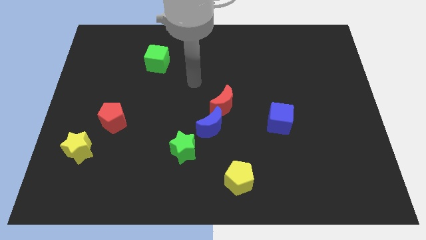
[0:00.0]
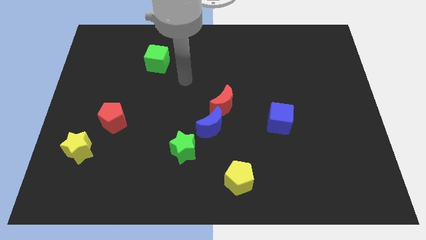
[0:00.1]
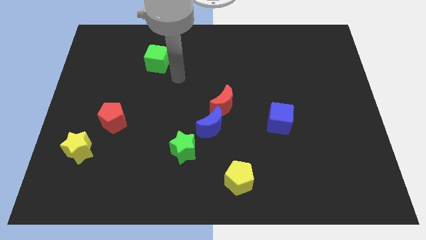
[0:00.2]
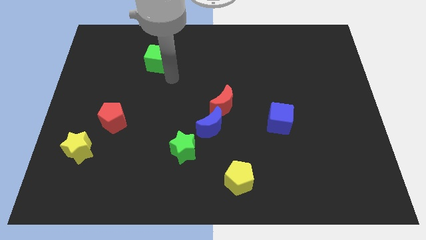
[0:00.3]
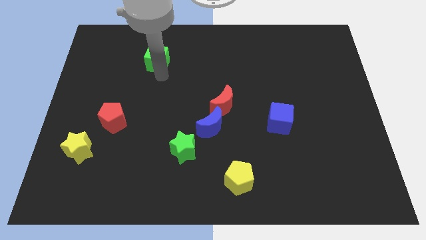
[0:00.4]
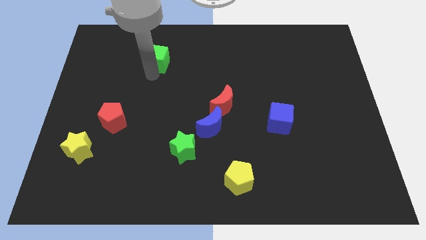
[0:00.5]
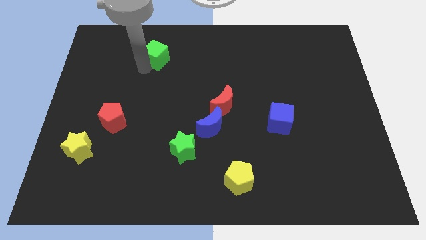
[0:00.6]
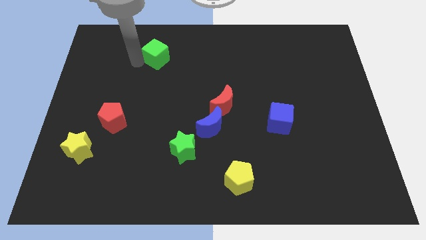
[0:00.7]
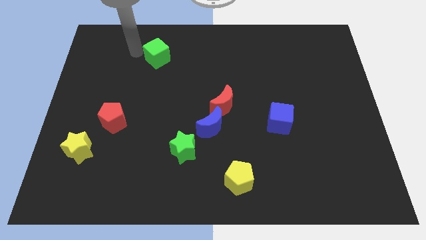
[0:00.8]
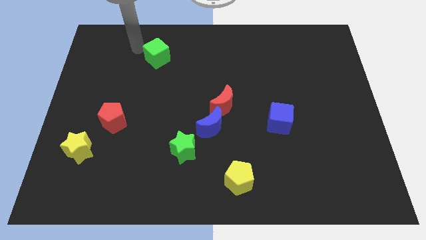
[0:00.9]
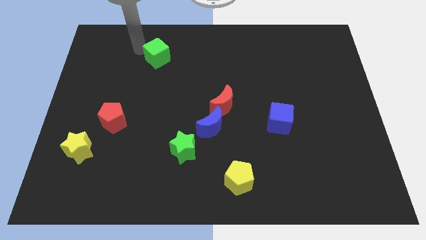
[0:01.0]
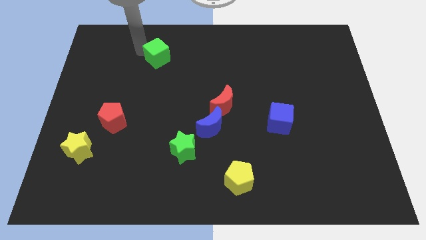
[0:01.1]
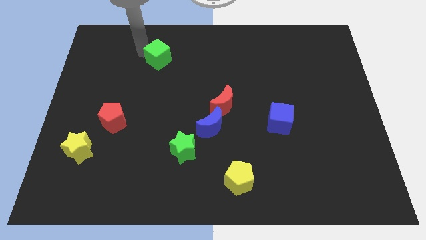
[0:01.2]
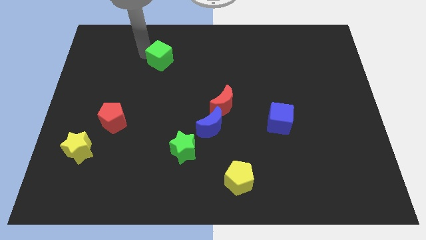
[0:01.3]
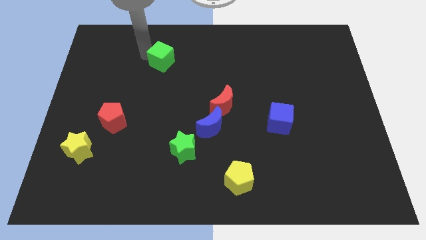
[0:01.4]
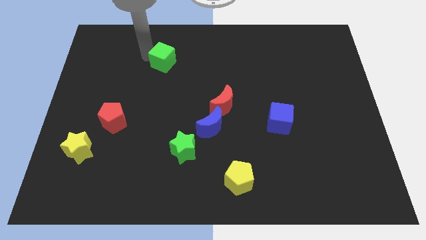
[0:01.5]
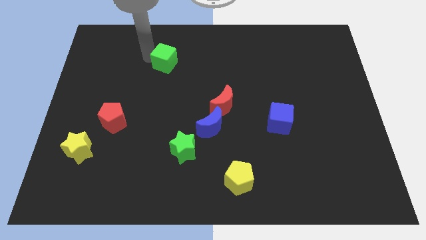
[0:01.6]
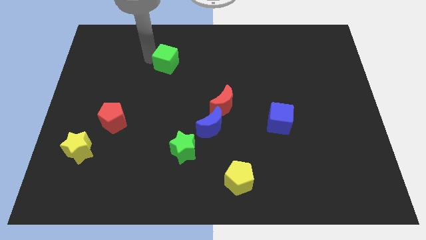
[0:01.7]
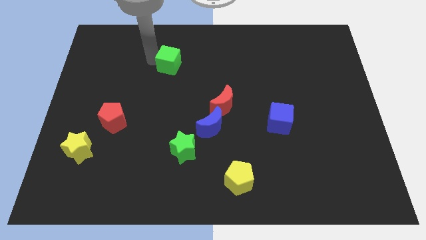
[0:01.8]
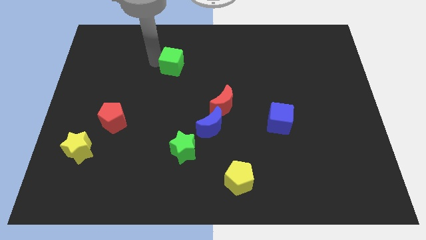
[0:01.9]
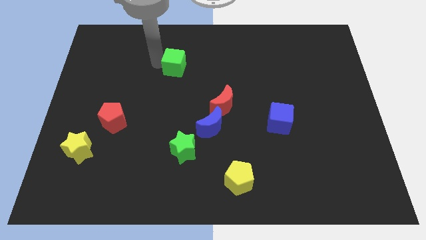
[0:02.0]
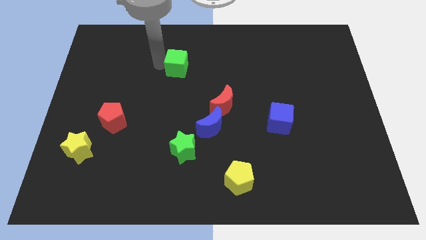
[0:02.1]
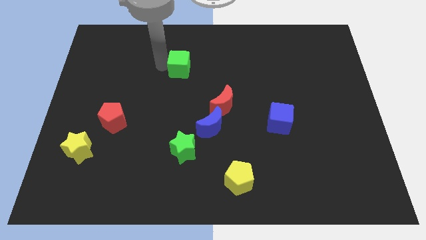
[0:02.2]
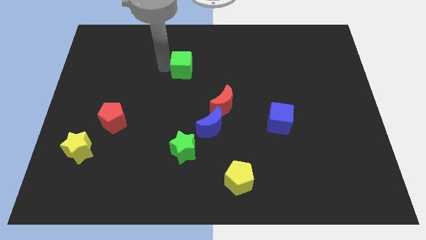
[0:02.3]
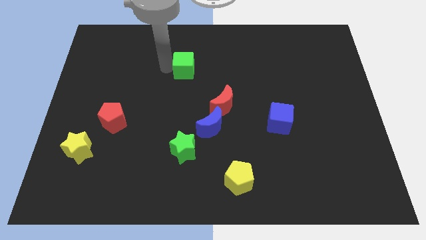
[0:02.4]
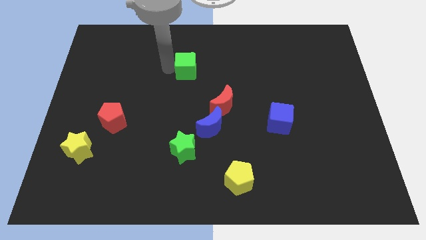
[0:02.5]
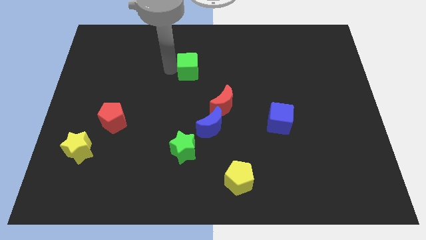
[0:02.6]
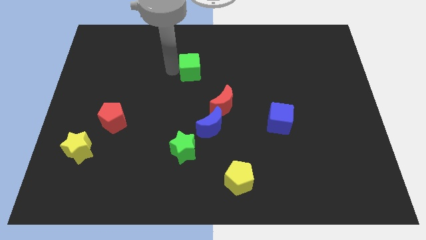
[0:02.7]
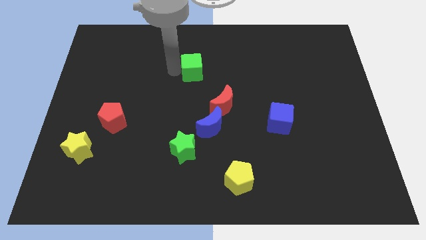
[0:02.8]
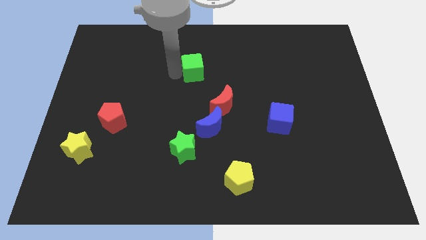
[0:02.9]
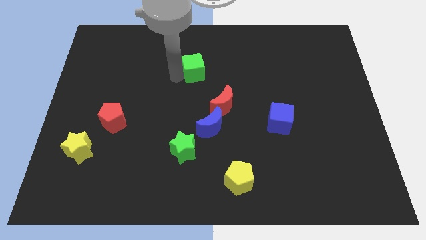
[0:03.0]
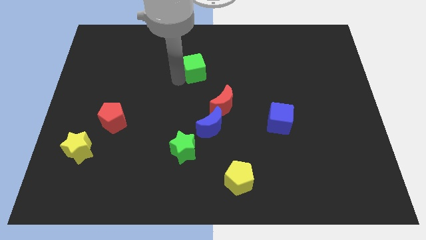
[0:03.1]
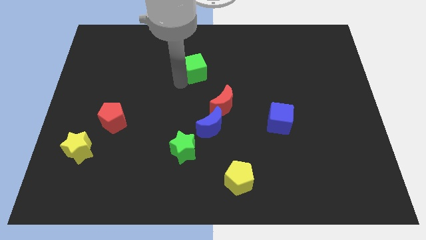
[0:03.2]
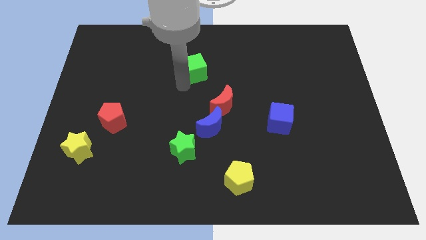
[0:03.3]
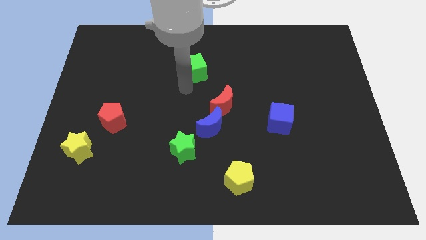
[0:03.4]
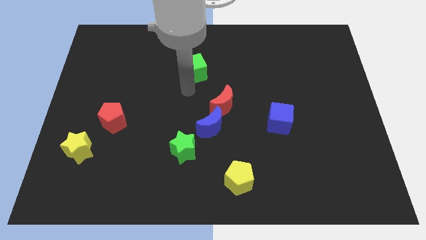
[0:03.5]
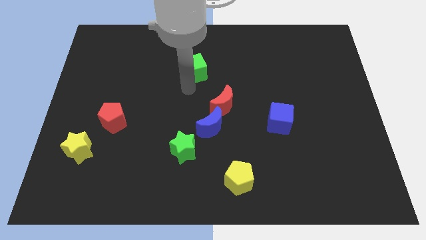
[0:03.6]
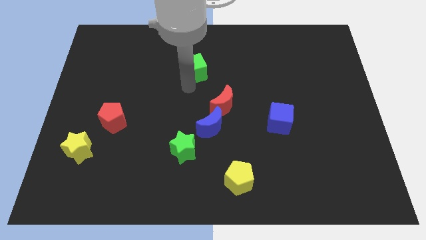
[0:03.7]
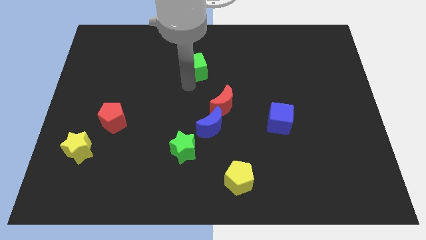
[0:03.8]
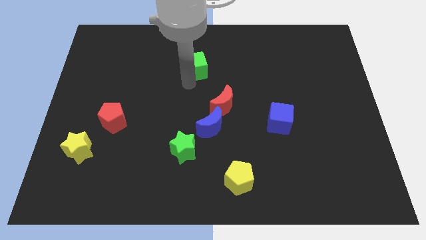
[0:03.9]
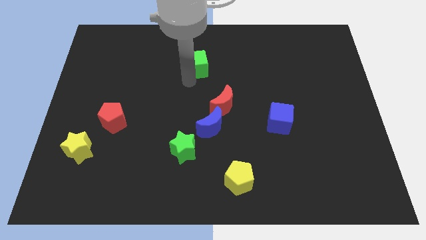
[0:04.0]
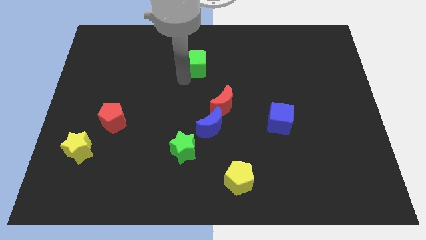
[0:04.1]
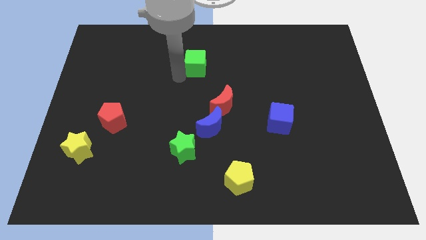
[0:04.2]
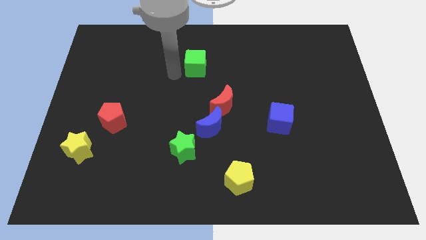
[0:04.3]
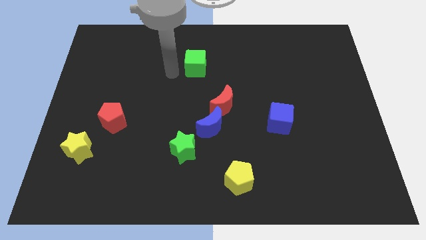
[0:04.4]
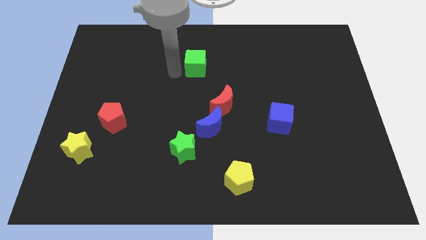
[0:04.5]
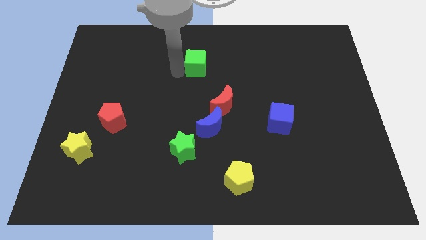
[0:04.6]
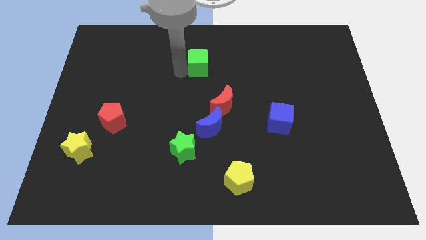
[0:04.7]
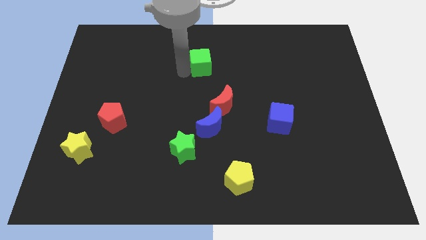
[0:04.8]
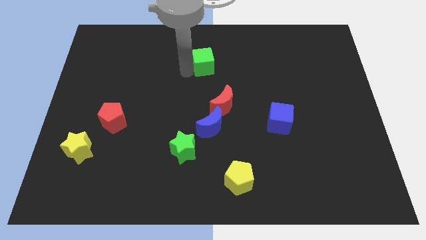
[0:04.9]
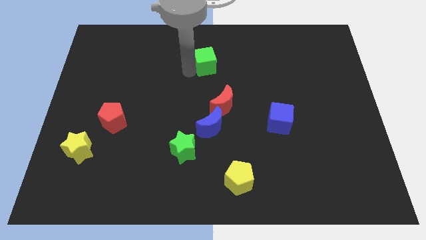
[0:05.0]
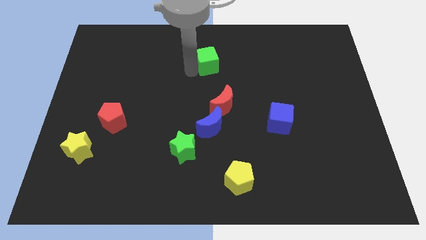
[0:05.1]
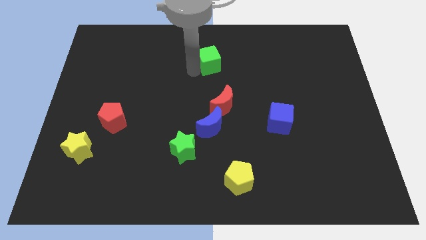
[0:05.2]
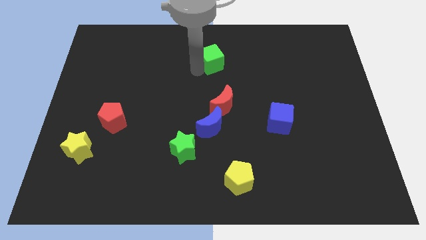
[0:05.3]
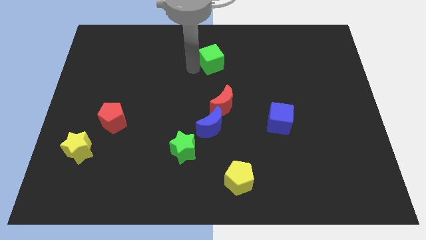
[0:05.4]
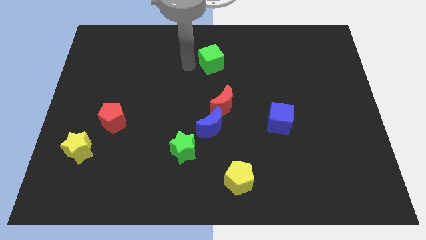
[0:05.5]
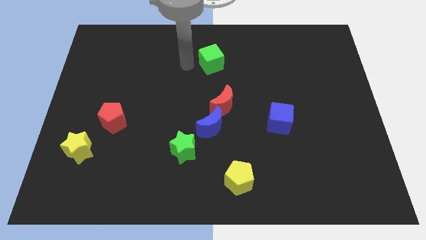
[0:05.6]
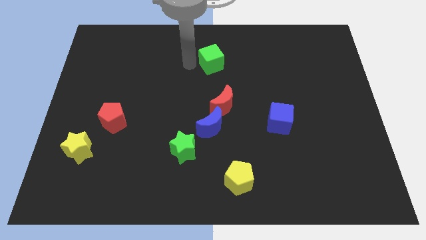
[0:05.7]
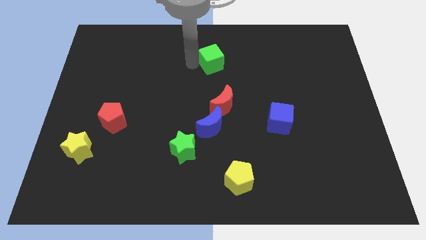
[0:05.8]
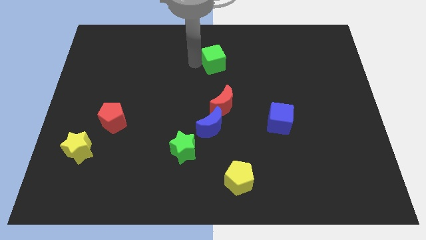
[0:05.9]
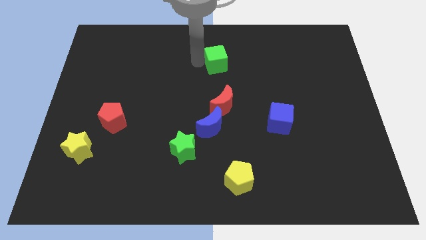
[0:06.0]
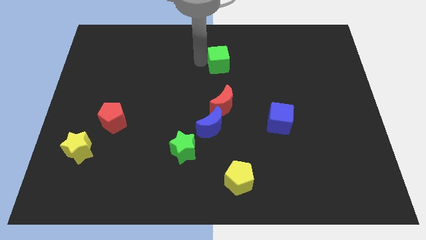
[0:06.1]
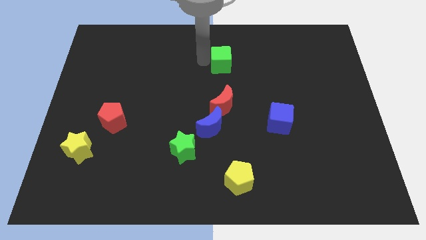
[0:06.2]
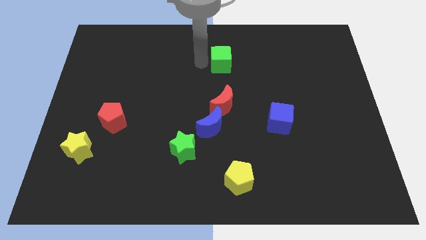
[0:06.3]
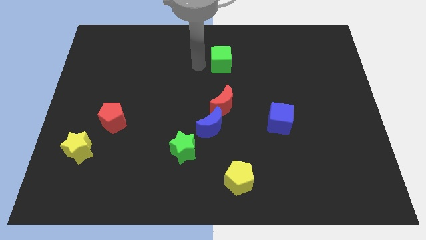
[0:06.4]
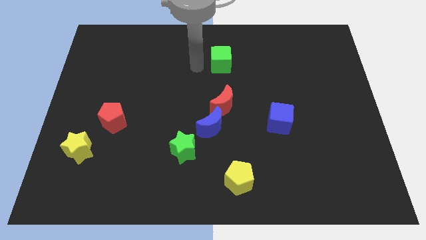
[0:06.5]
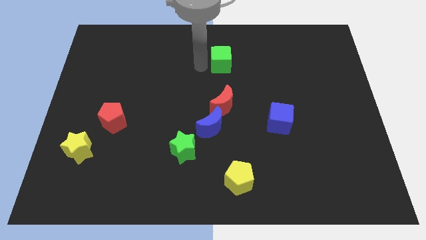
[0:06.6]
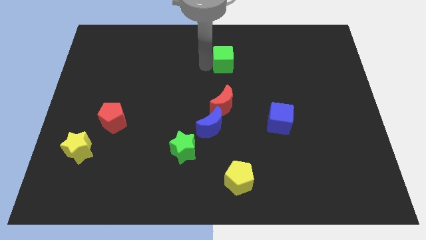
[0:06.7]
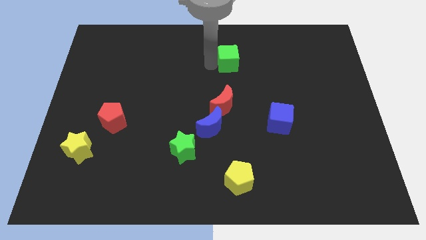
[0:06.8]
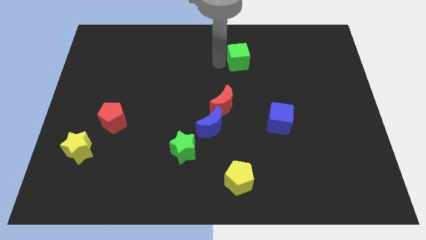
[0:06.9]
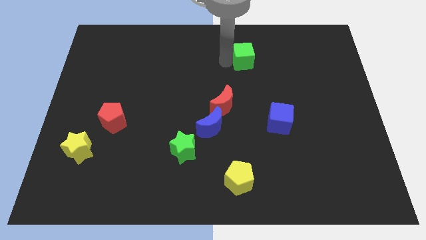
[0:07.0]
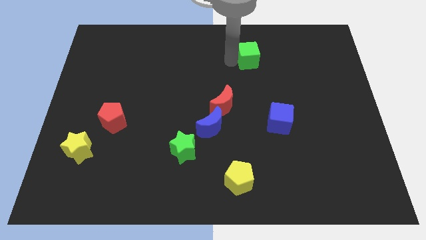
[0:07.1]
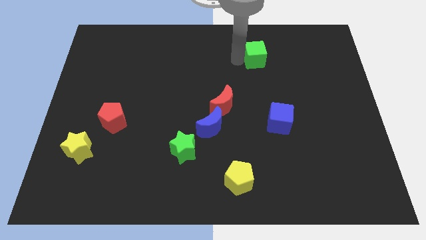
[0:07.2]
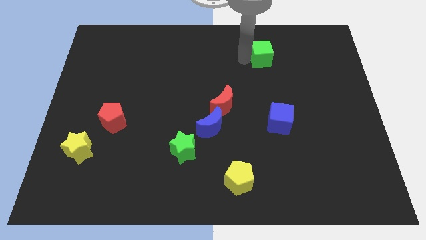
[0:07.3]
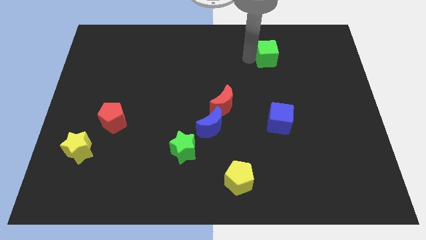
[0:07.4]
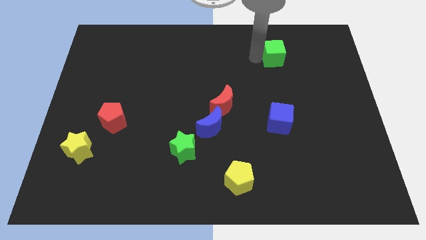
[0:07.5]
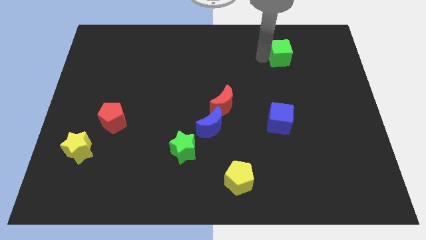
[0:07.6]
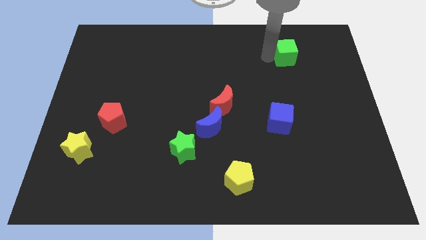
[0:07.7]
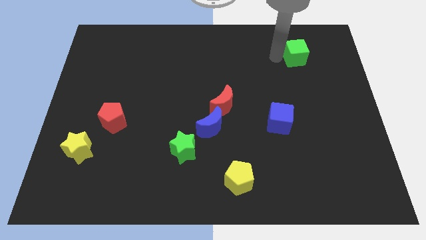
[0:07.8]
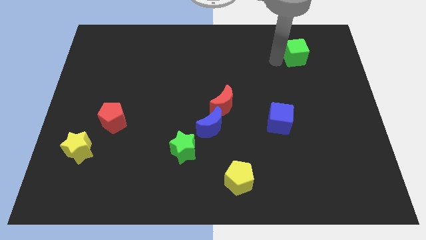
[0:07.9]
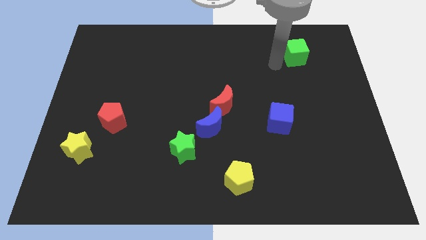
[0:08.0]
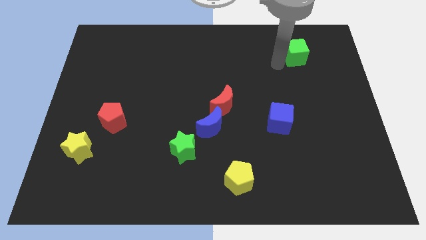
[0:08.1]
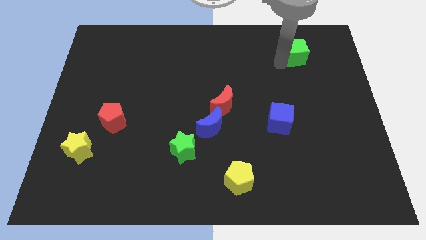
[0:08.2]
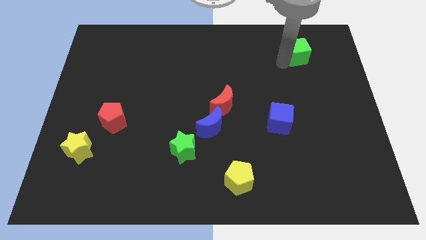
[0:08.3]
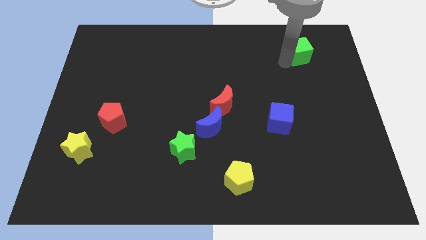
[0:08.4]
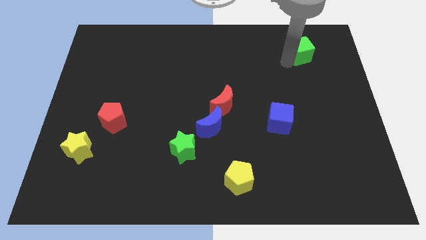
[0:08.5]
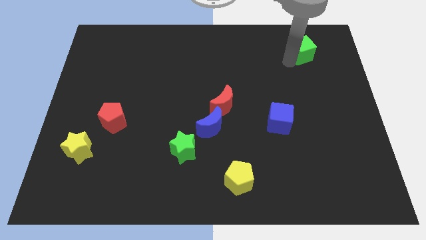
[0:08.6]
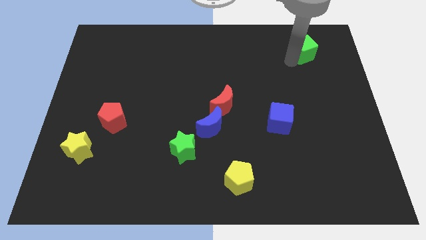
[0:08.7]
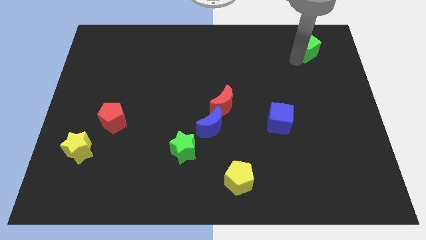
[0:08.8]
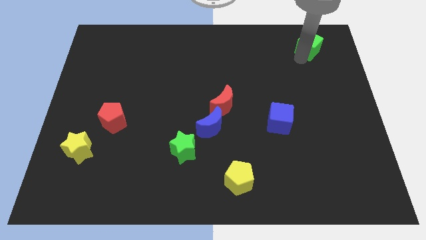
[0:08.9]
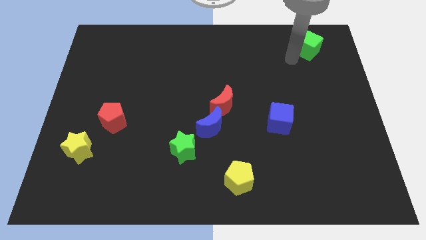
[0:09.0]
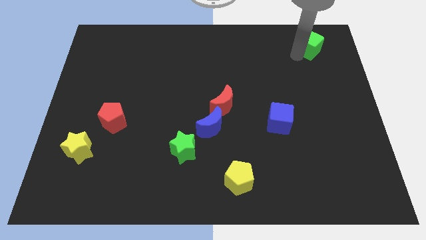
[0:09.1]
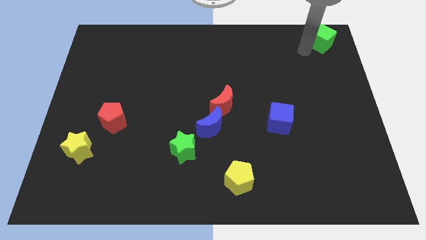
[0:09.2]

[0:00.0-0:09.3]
push the green cube to the upper right corner
